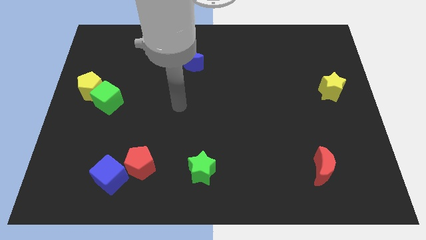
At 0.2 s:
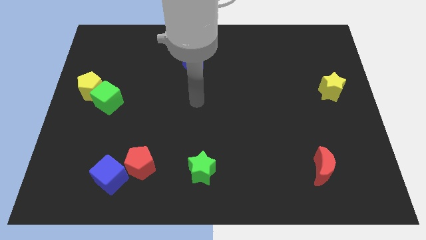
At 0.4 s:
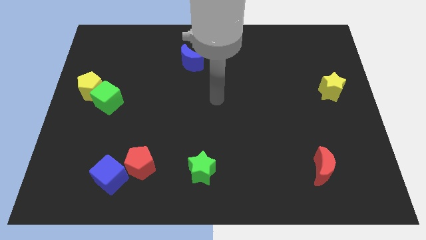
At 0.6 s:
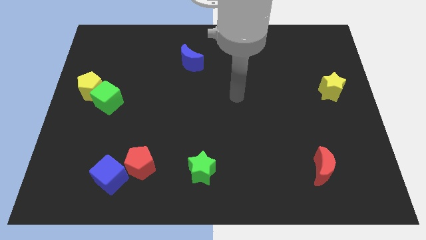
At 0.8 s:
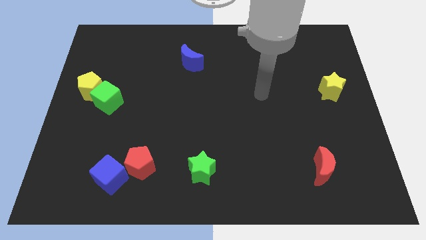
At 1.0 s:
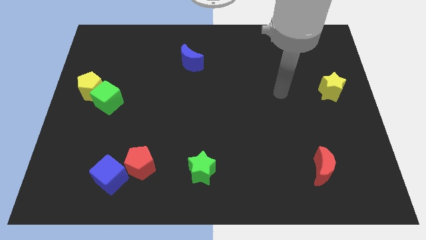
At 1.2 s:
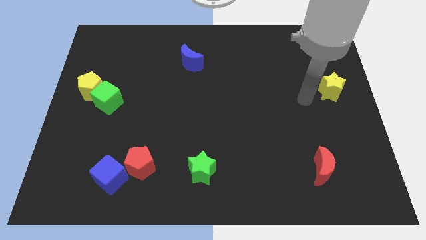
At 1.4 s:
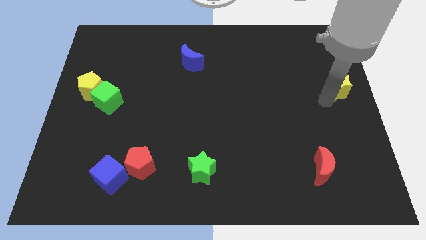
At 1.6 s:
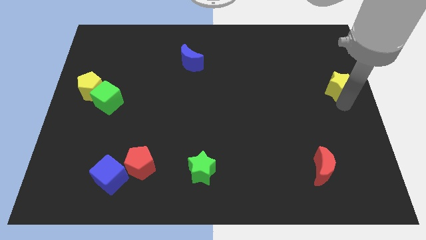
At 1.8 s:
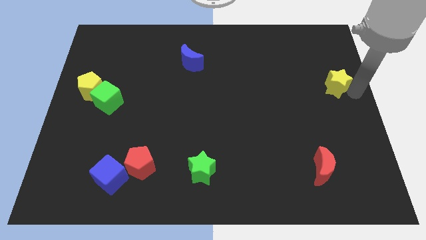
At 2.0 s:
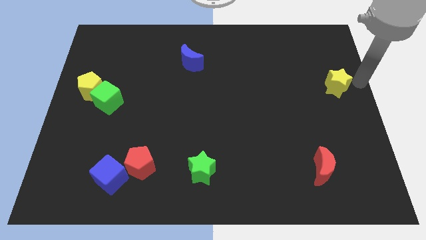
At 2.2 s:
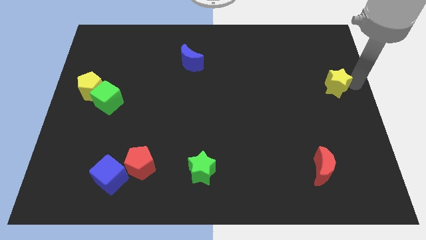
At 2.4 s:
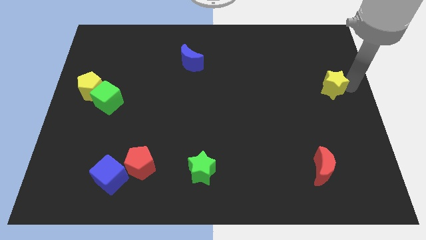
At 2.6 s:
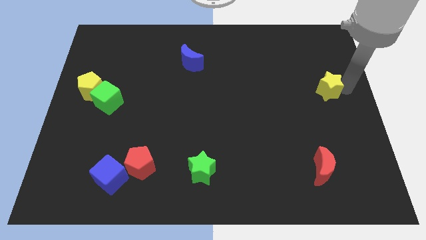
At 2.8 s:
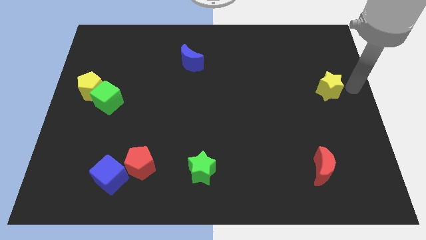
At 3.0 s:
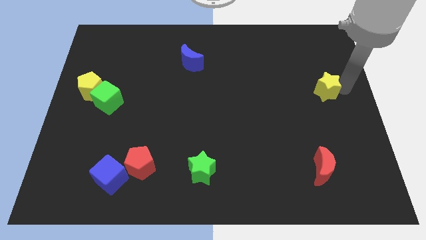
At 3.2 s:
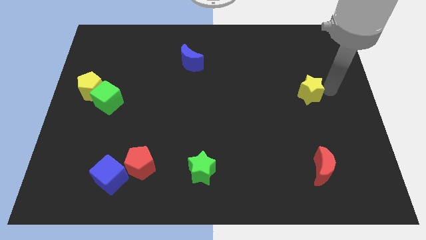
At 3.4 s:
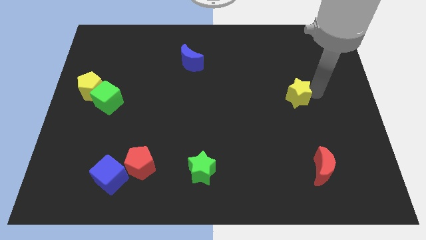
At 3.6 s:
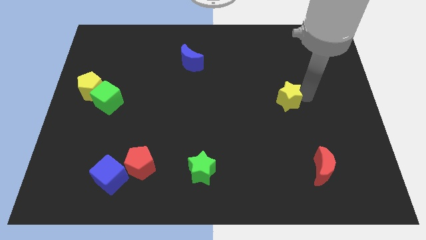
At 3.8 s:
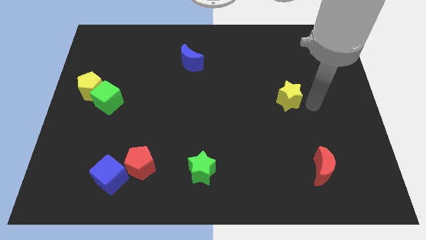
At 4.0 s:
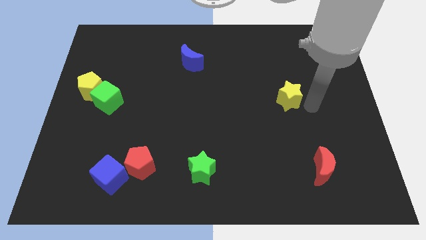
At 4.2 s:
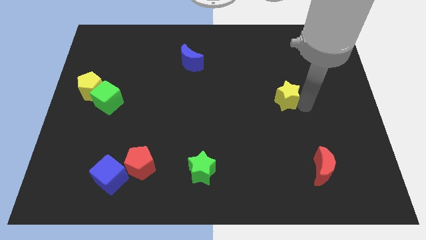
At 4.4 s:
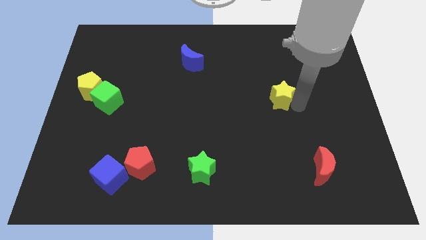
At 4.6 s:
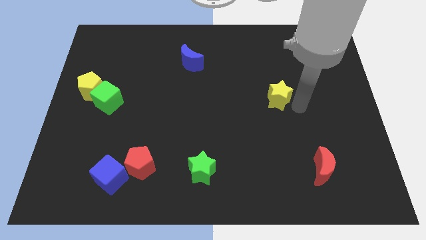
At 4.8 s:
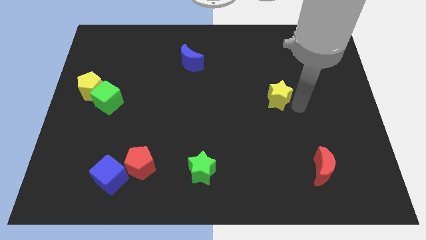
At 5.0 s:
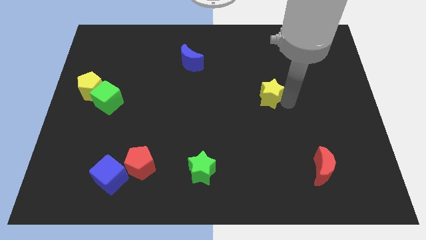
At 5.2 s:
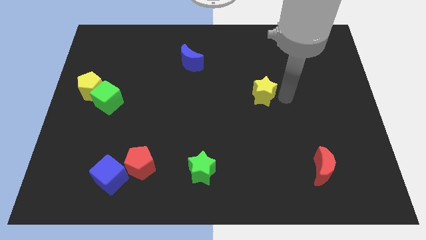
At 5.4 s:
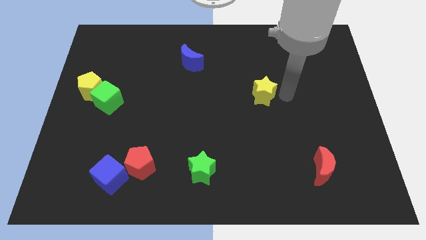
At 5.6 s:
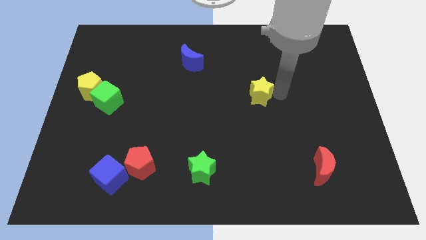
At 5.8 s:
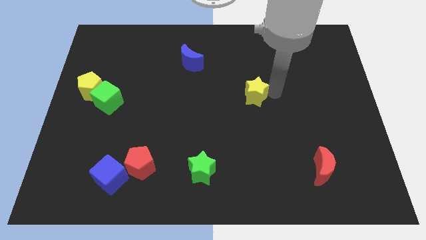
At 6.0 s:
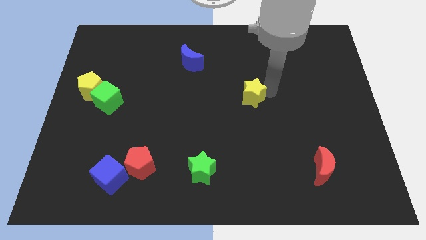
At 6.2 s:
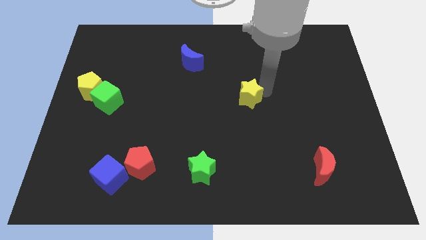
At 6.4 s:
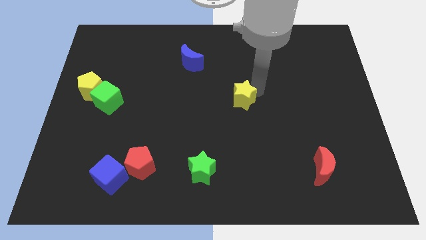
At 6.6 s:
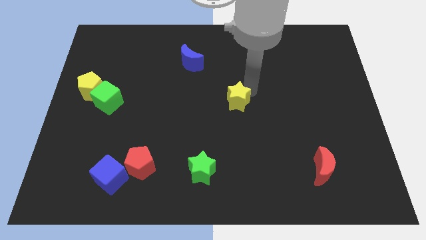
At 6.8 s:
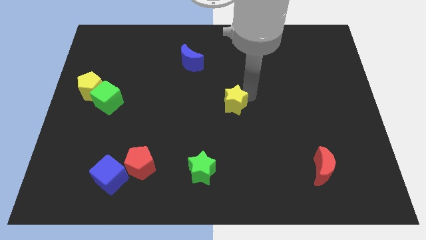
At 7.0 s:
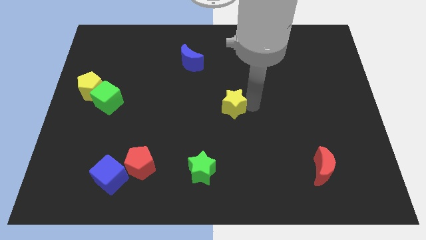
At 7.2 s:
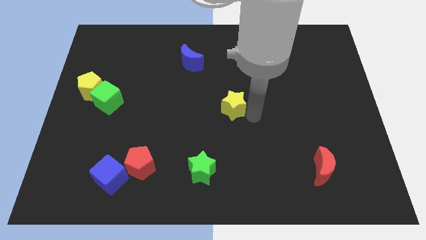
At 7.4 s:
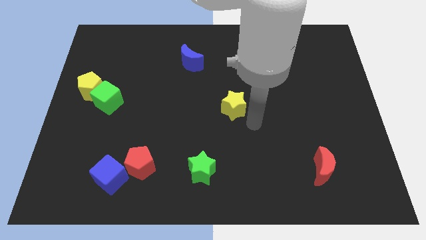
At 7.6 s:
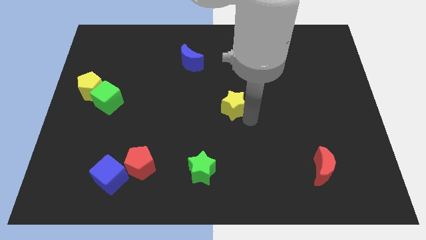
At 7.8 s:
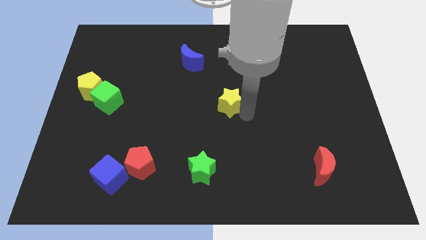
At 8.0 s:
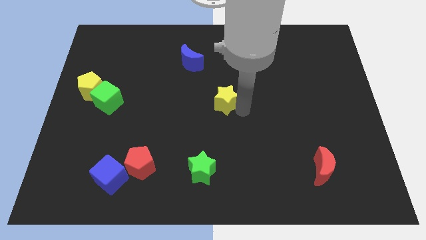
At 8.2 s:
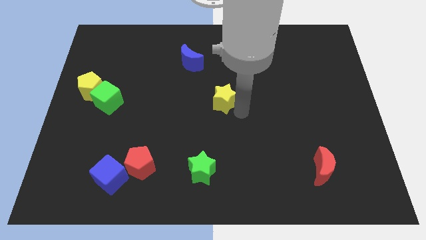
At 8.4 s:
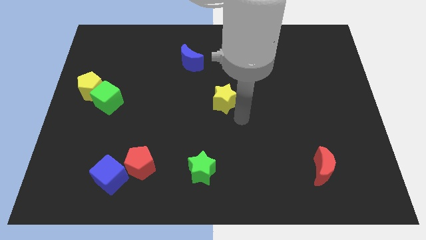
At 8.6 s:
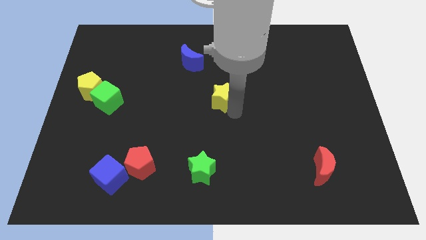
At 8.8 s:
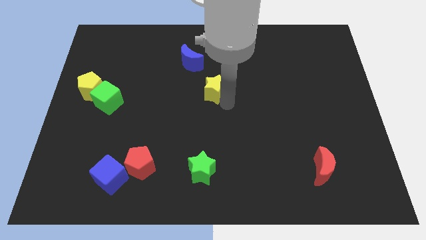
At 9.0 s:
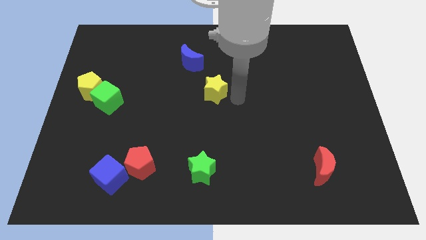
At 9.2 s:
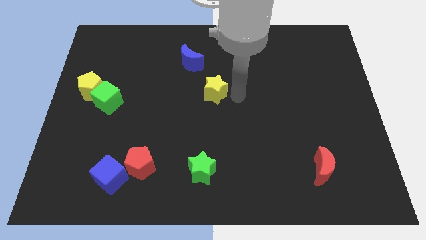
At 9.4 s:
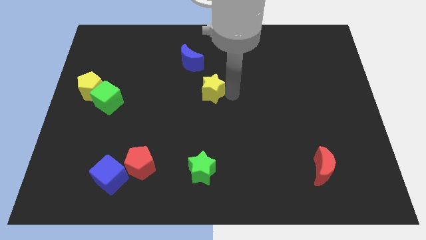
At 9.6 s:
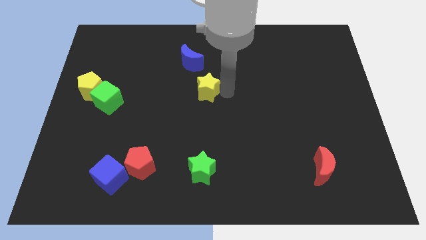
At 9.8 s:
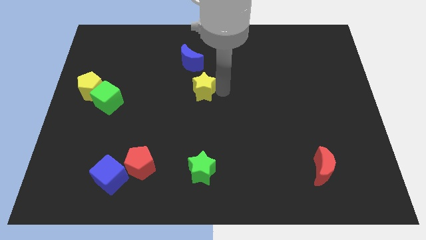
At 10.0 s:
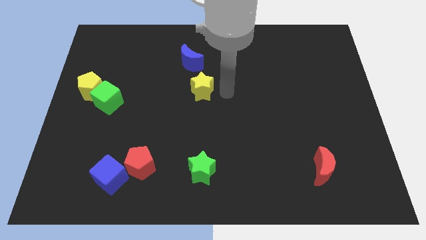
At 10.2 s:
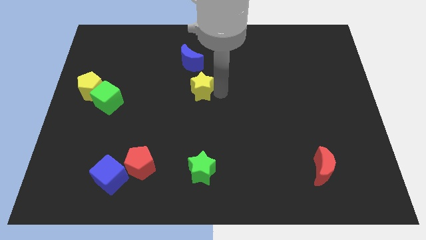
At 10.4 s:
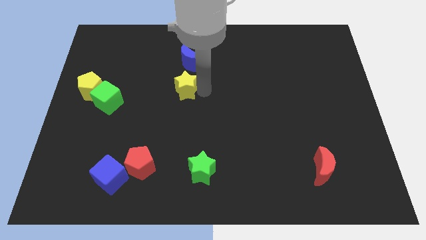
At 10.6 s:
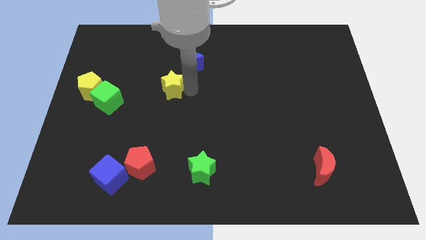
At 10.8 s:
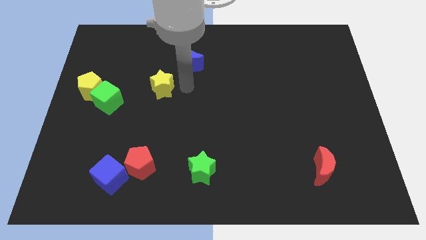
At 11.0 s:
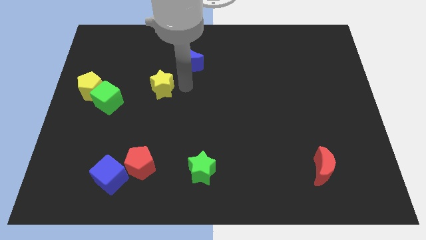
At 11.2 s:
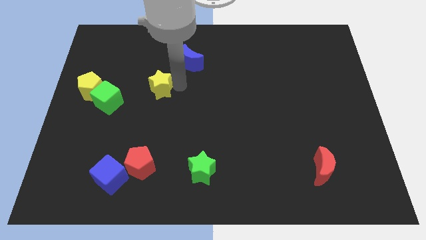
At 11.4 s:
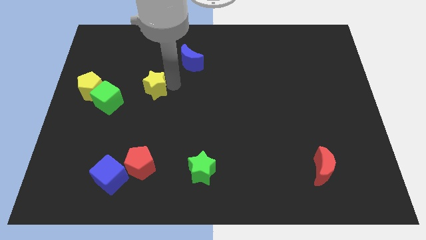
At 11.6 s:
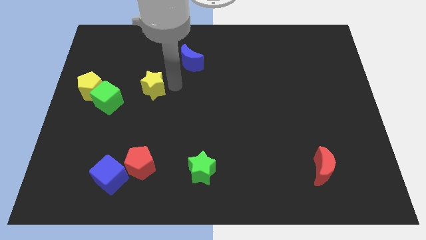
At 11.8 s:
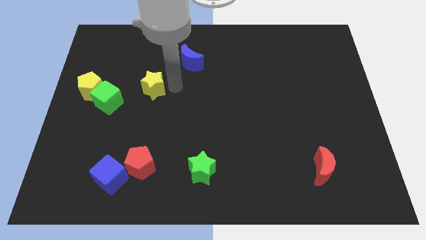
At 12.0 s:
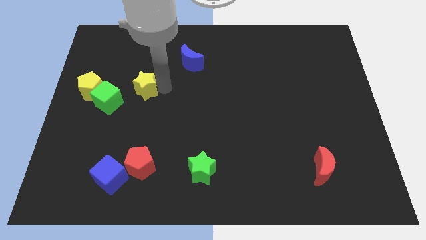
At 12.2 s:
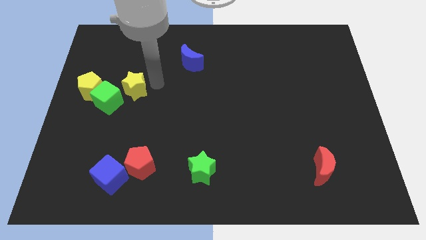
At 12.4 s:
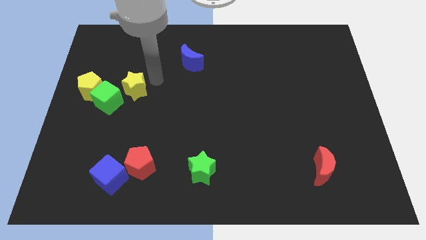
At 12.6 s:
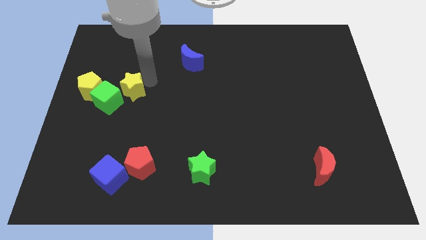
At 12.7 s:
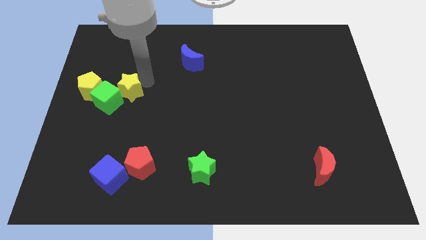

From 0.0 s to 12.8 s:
slide the yellow star close to the green cube

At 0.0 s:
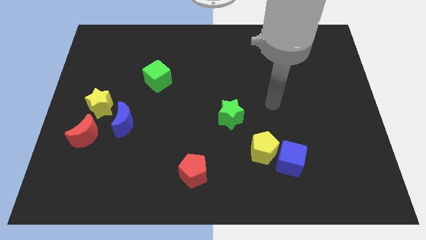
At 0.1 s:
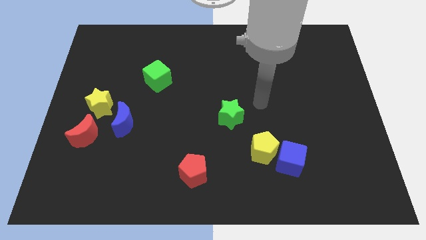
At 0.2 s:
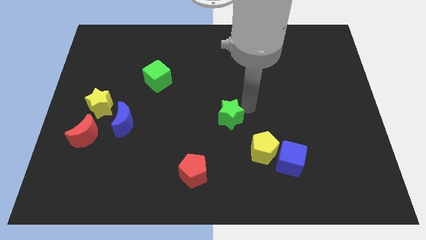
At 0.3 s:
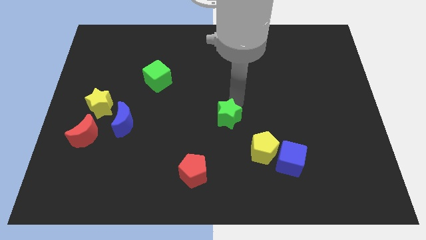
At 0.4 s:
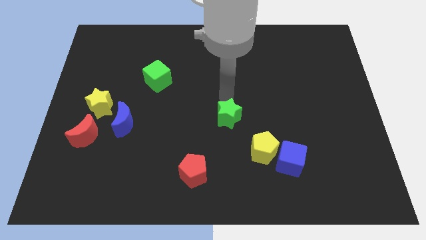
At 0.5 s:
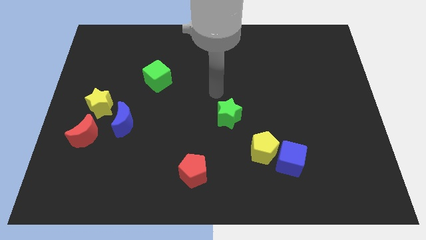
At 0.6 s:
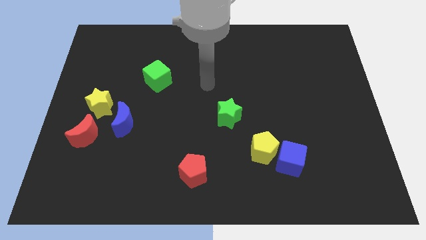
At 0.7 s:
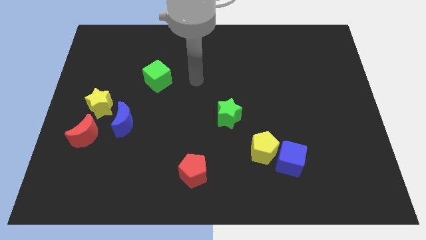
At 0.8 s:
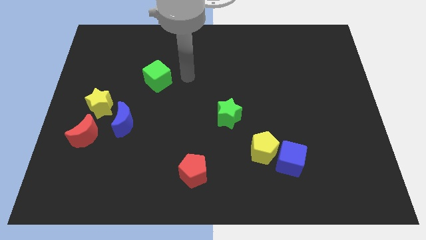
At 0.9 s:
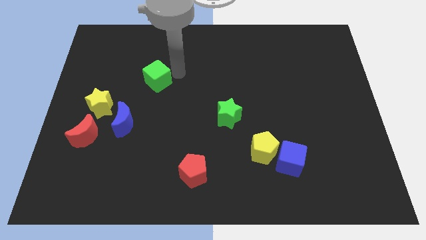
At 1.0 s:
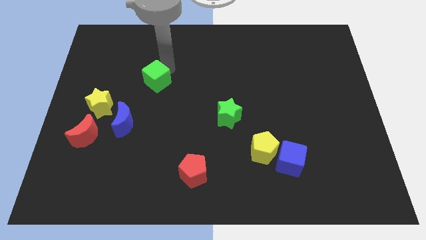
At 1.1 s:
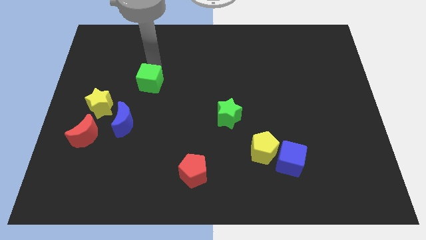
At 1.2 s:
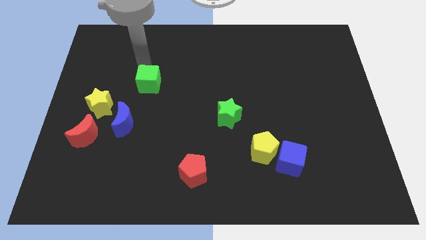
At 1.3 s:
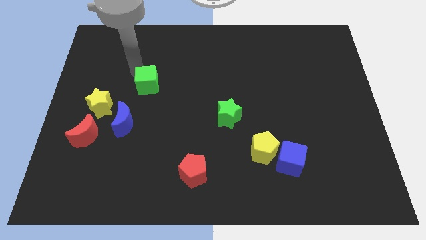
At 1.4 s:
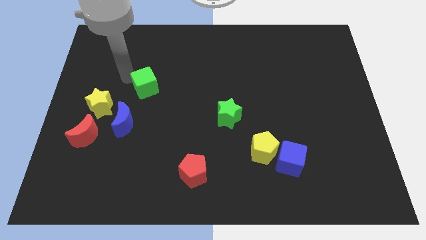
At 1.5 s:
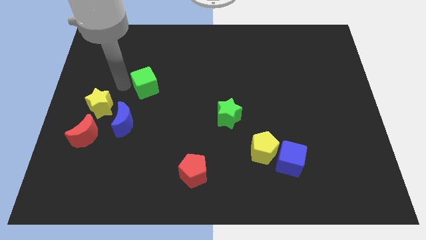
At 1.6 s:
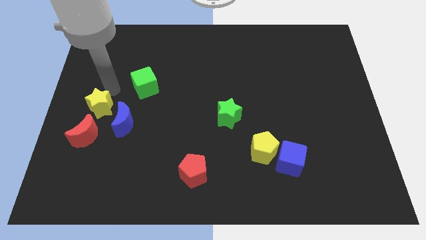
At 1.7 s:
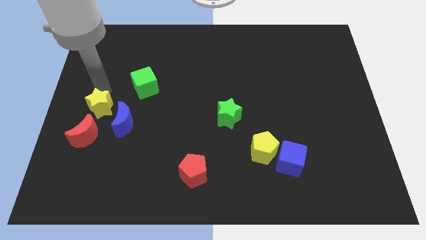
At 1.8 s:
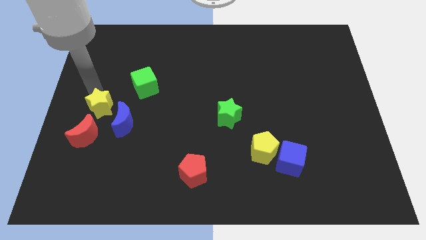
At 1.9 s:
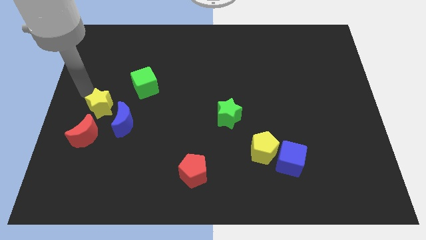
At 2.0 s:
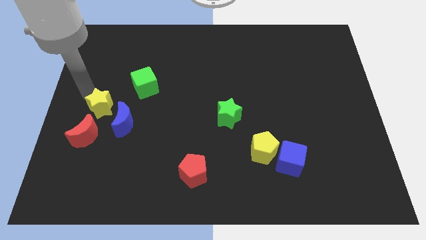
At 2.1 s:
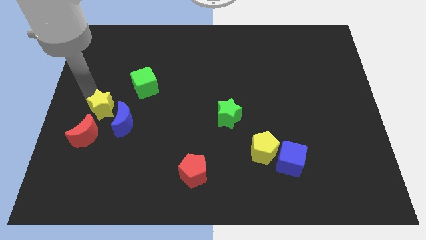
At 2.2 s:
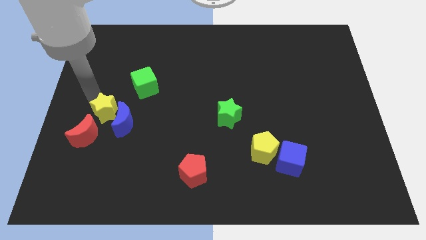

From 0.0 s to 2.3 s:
push the yellow star towards the blue moon
